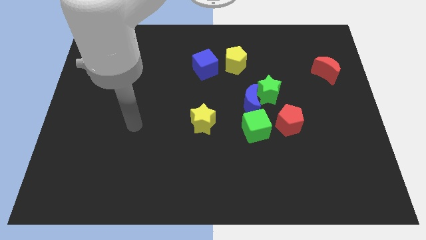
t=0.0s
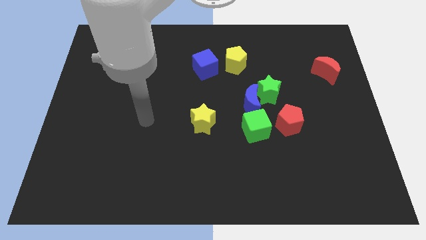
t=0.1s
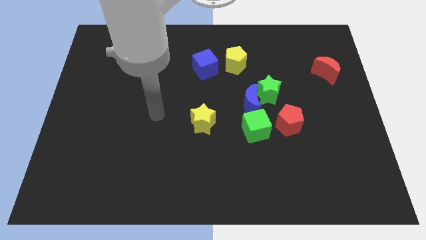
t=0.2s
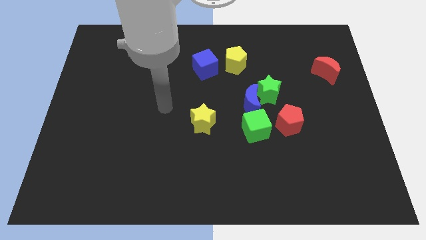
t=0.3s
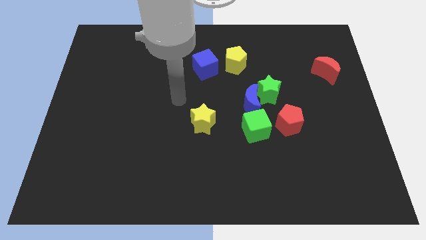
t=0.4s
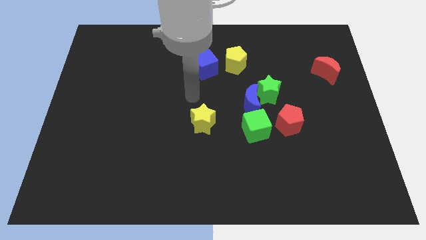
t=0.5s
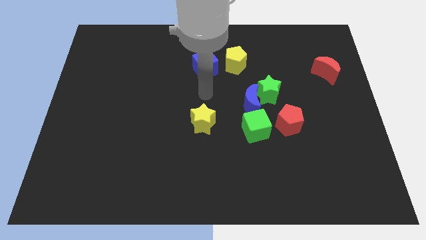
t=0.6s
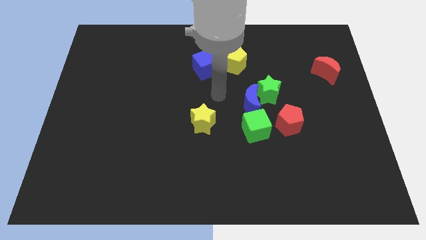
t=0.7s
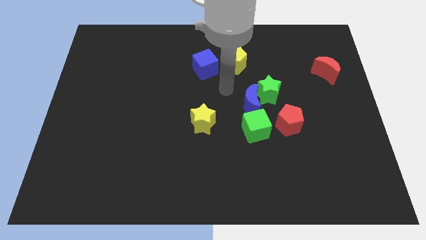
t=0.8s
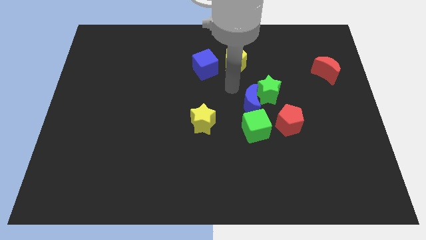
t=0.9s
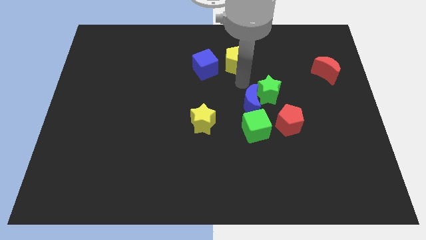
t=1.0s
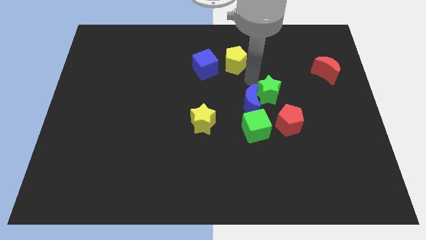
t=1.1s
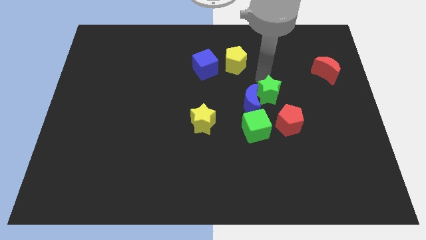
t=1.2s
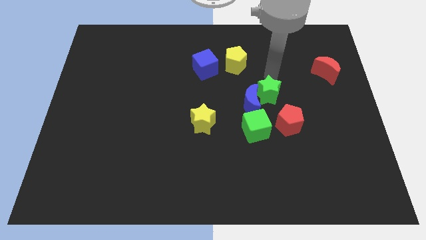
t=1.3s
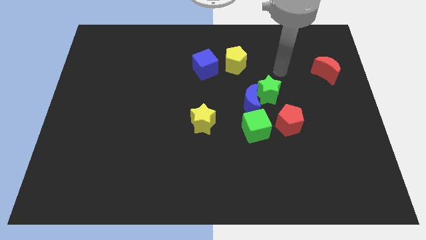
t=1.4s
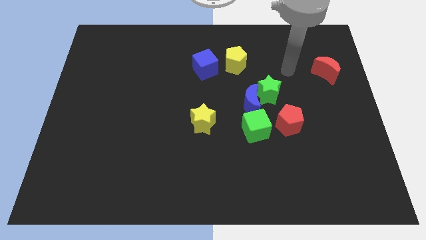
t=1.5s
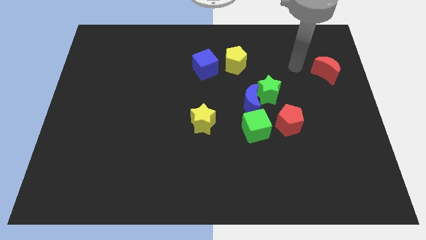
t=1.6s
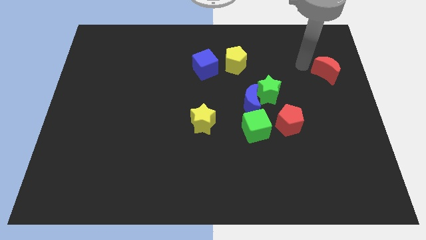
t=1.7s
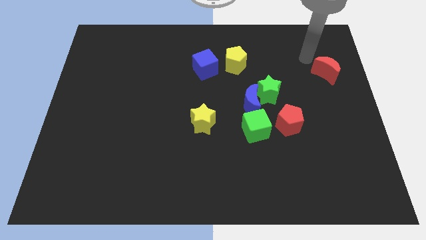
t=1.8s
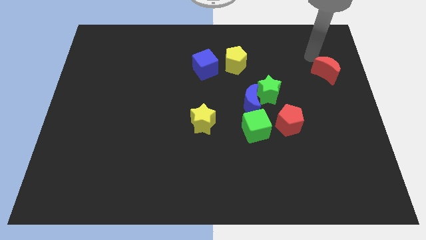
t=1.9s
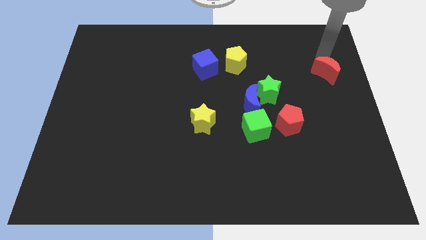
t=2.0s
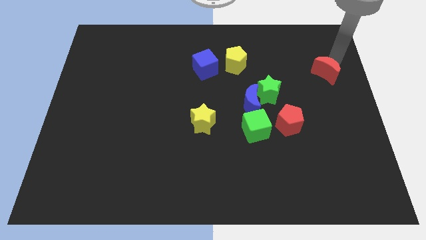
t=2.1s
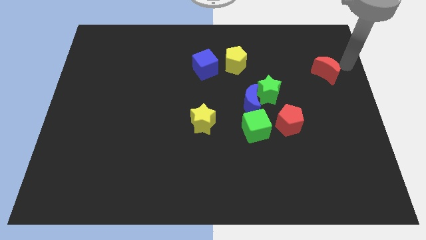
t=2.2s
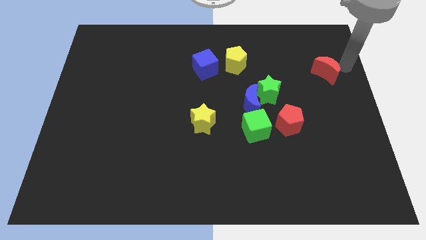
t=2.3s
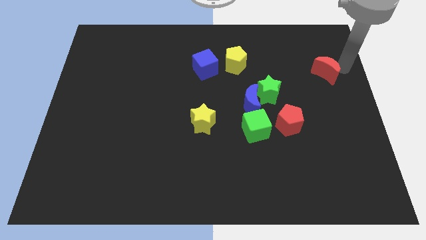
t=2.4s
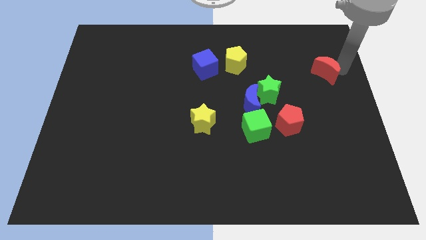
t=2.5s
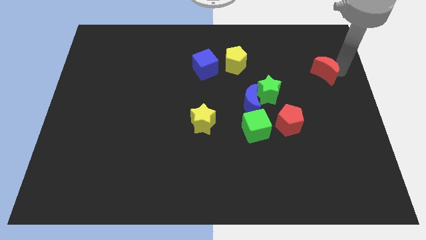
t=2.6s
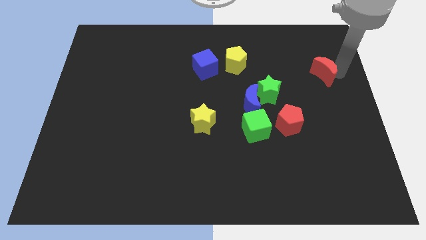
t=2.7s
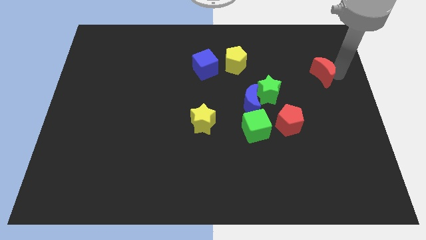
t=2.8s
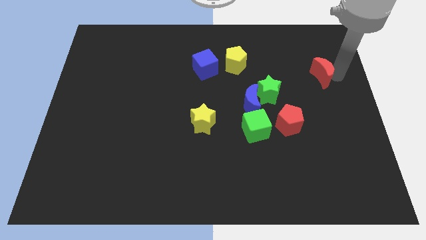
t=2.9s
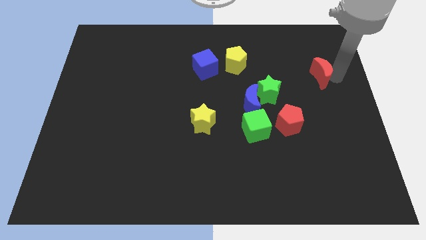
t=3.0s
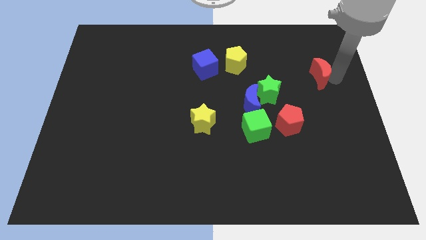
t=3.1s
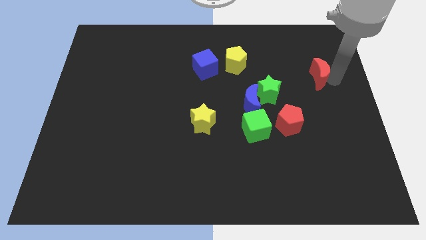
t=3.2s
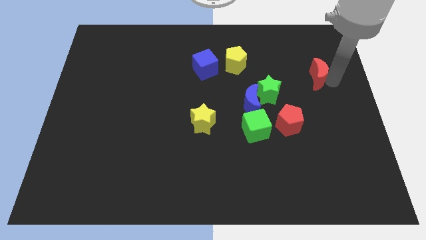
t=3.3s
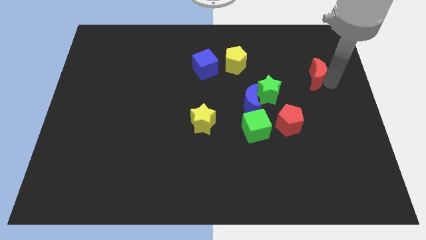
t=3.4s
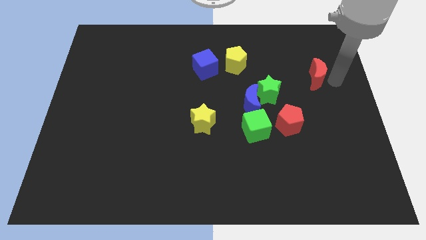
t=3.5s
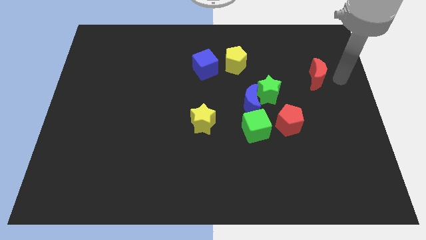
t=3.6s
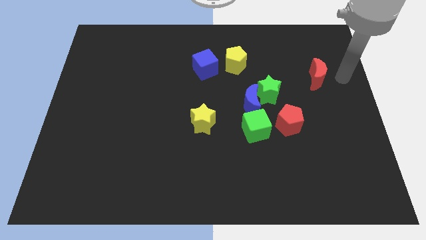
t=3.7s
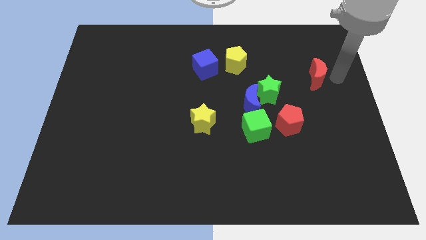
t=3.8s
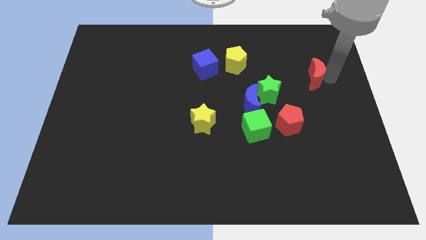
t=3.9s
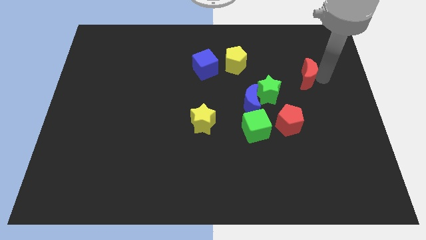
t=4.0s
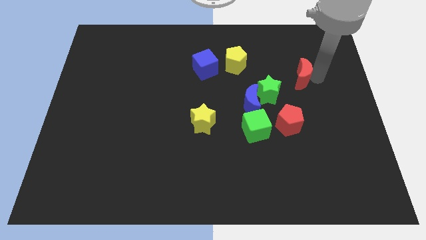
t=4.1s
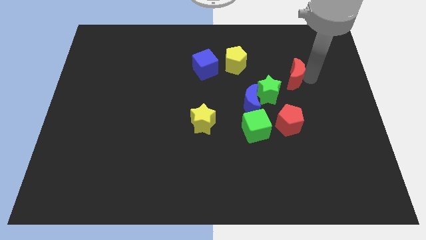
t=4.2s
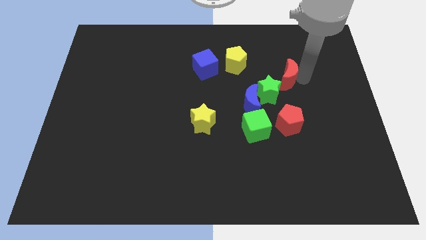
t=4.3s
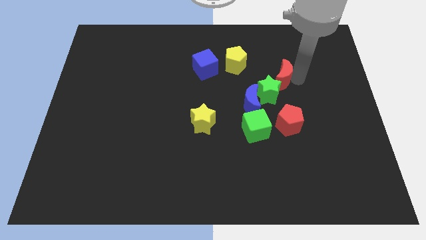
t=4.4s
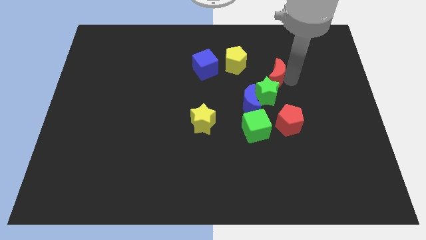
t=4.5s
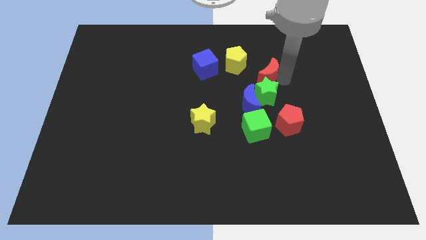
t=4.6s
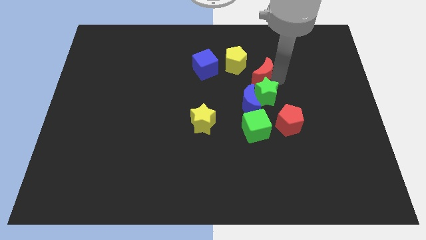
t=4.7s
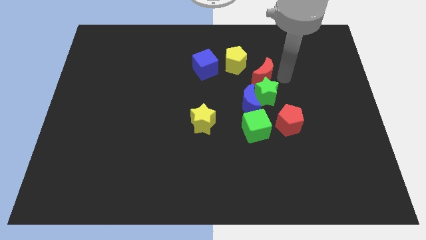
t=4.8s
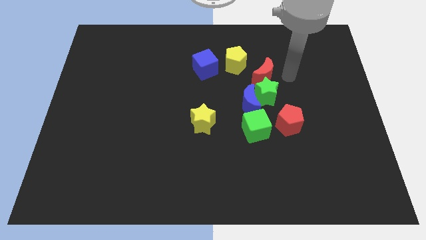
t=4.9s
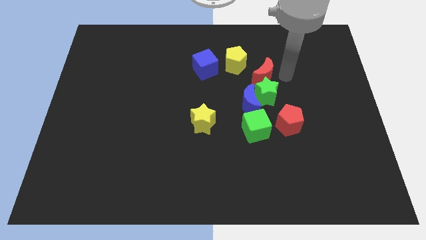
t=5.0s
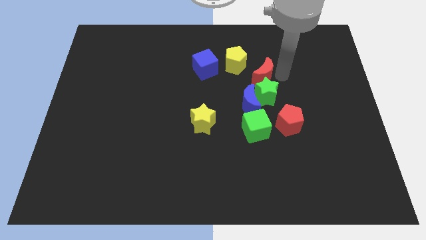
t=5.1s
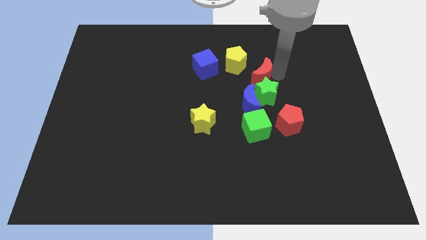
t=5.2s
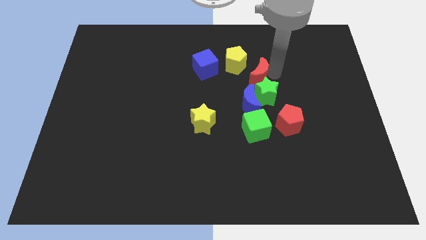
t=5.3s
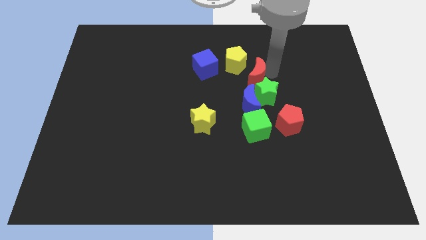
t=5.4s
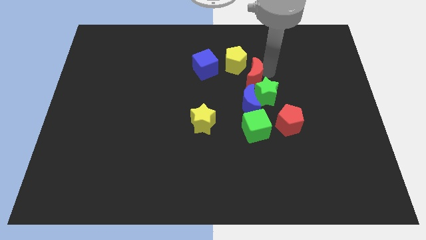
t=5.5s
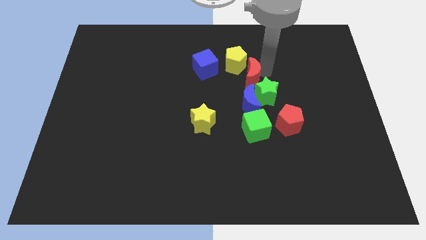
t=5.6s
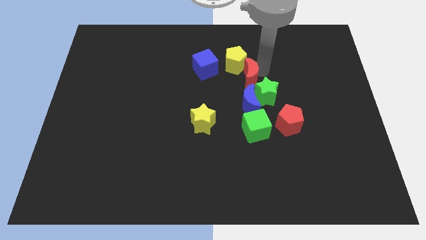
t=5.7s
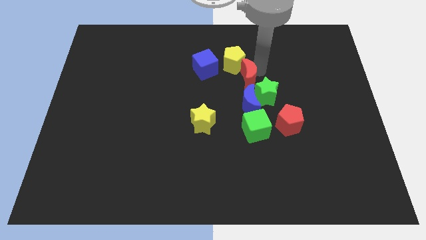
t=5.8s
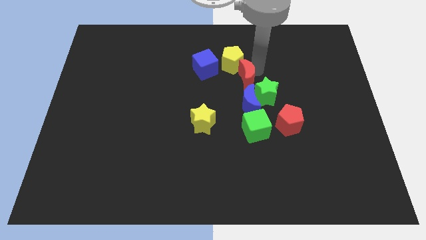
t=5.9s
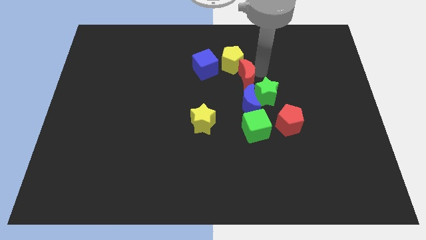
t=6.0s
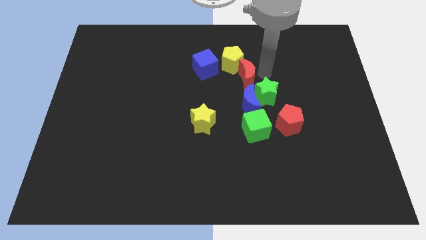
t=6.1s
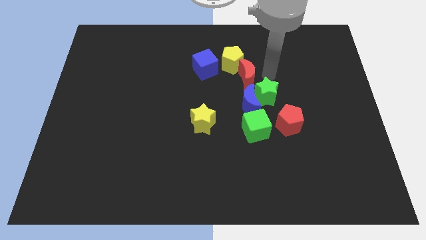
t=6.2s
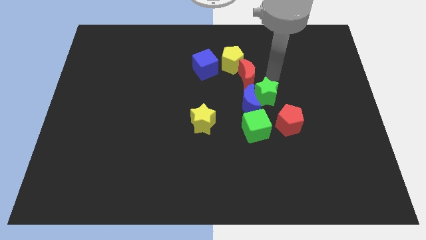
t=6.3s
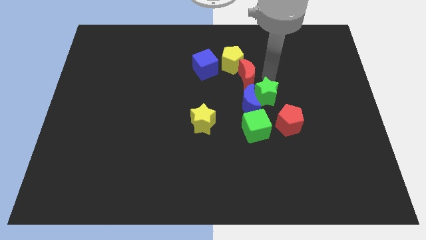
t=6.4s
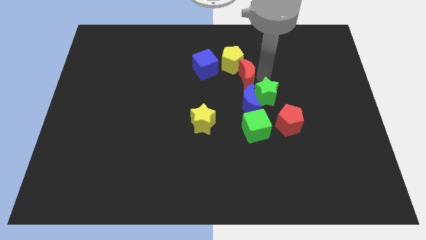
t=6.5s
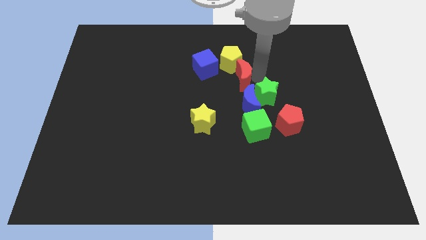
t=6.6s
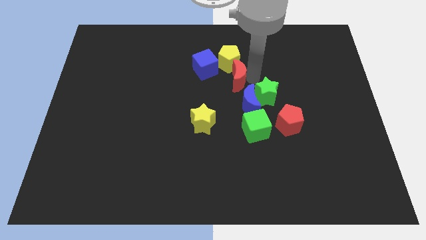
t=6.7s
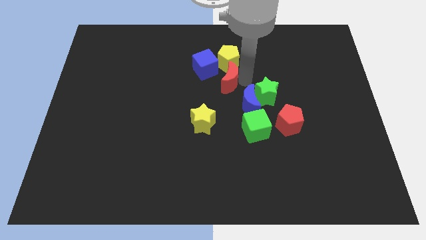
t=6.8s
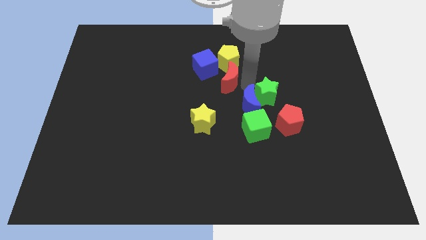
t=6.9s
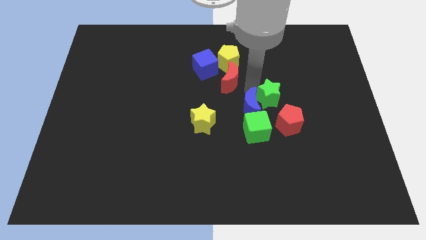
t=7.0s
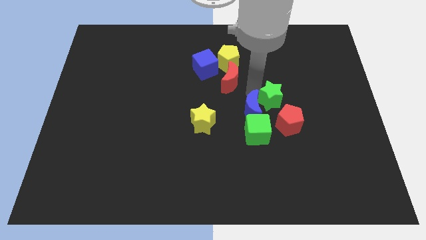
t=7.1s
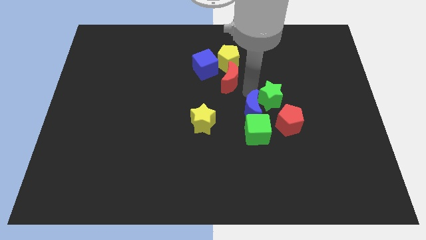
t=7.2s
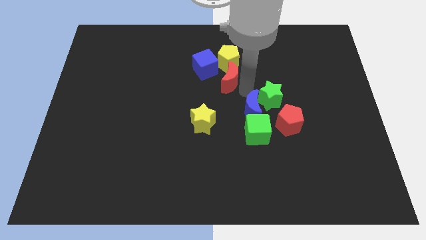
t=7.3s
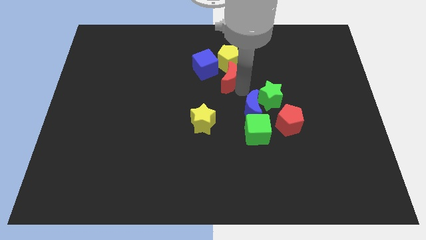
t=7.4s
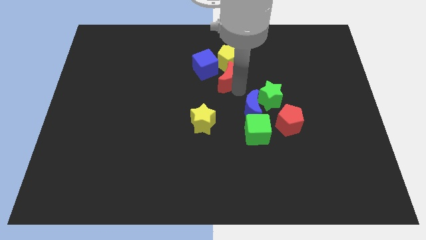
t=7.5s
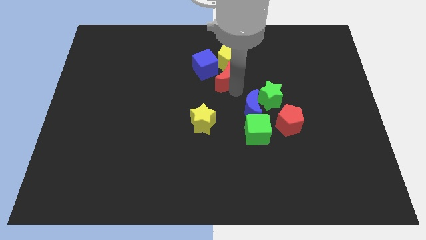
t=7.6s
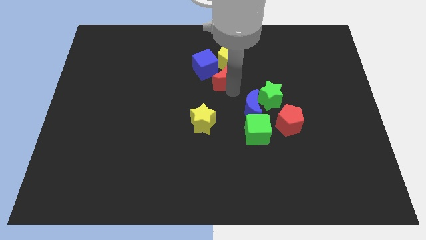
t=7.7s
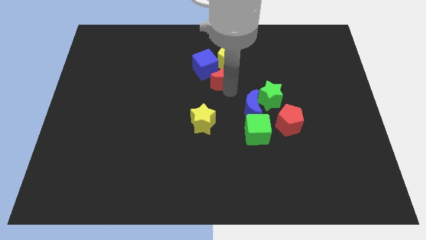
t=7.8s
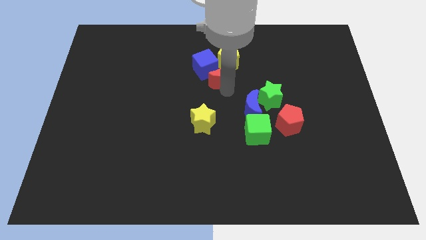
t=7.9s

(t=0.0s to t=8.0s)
put the red moon close to the blue cube

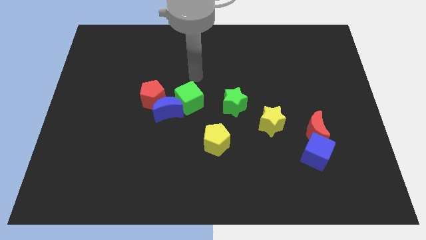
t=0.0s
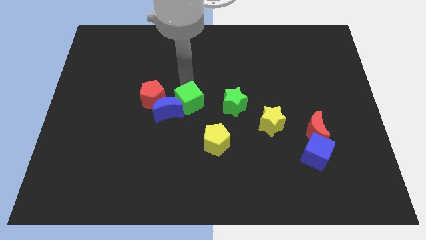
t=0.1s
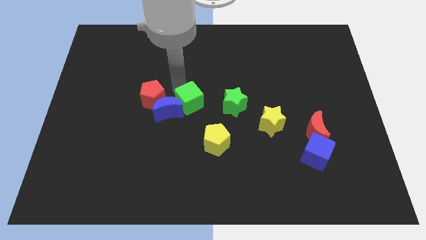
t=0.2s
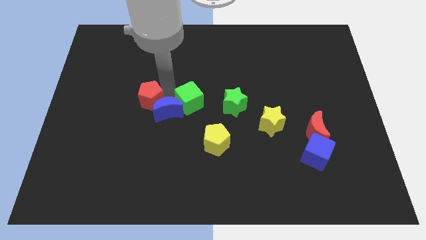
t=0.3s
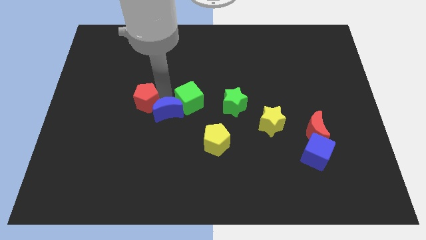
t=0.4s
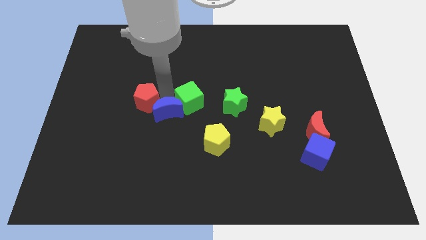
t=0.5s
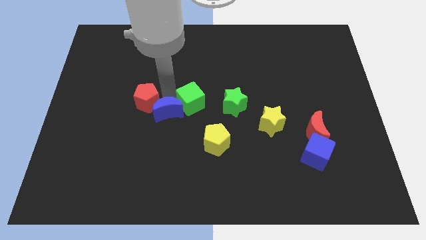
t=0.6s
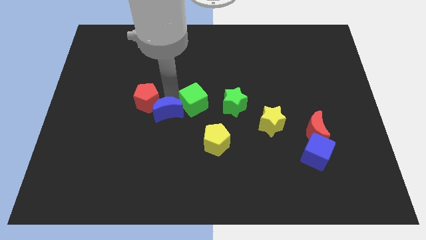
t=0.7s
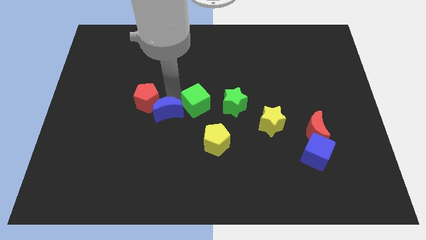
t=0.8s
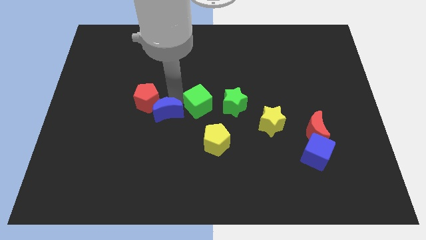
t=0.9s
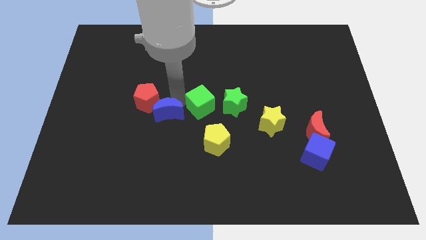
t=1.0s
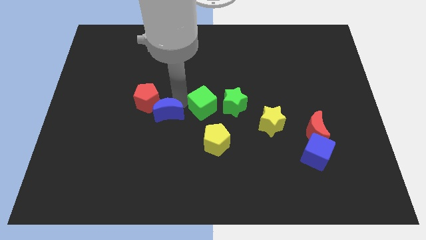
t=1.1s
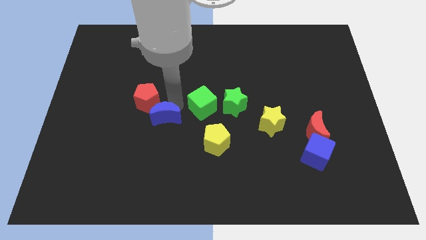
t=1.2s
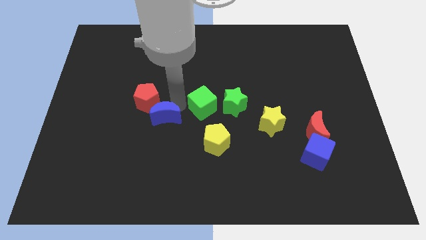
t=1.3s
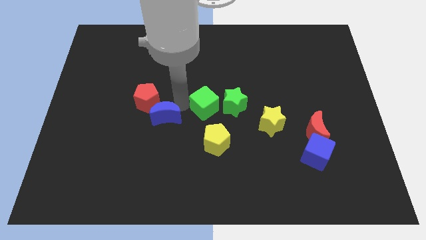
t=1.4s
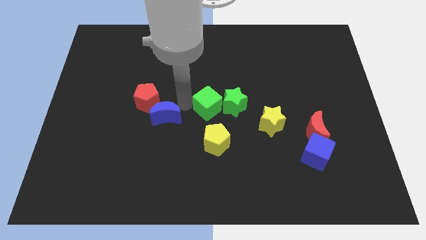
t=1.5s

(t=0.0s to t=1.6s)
push the green cube to the green star
